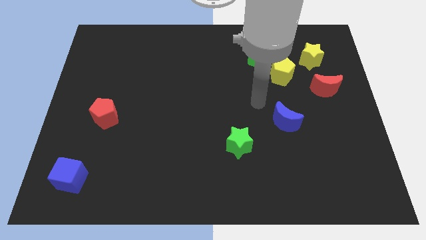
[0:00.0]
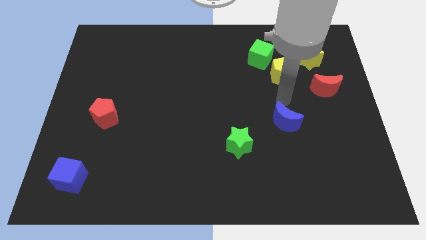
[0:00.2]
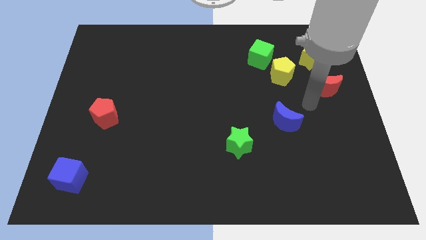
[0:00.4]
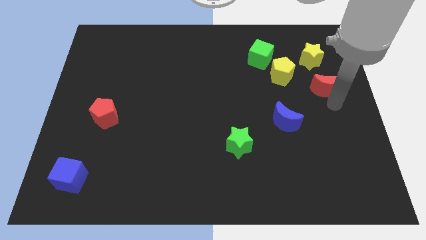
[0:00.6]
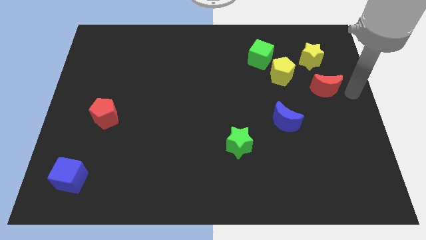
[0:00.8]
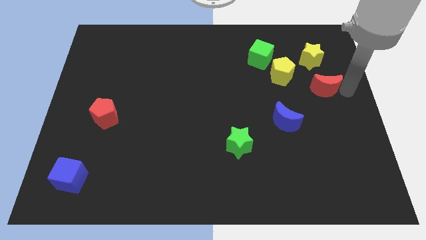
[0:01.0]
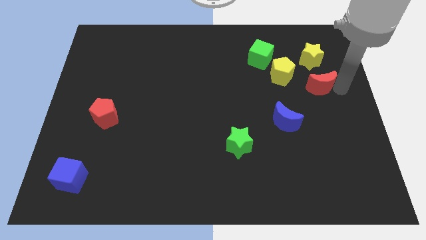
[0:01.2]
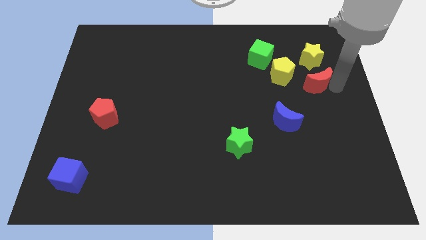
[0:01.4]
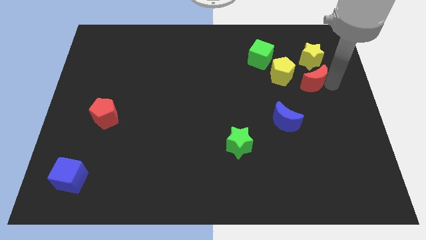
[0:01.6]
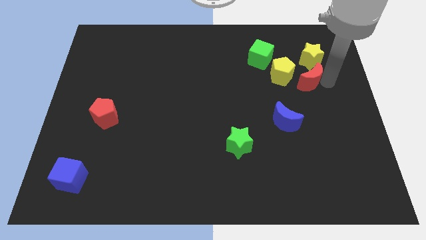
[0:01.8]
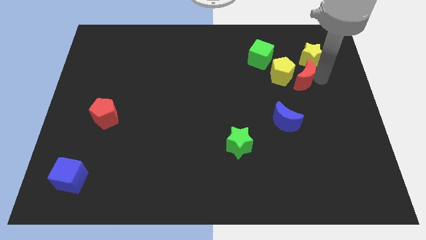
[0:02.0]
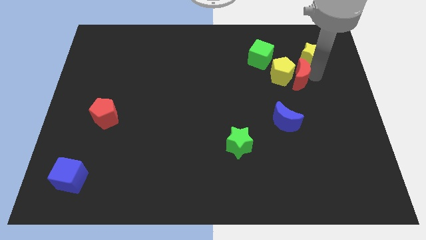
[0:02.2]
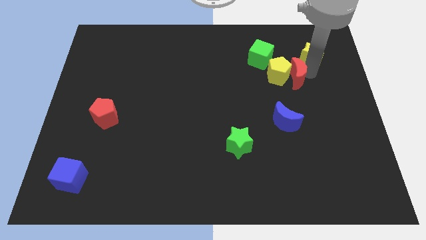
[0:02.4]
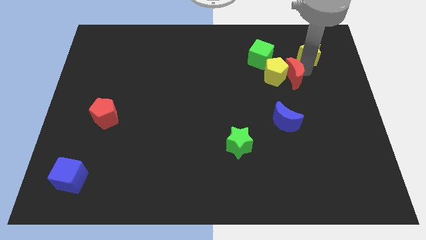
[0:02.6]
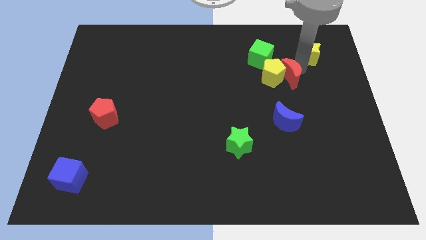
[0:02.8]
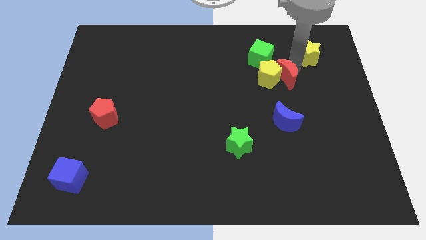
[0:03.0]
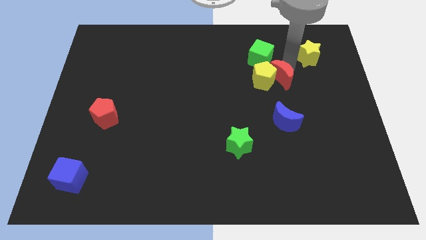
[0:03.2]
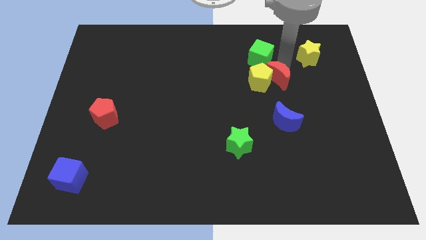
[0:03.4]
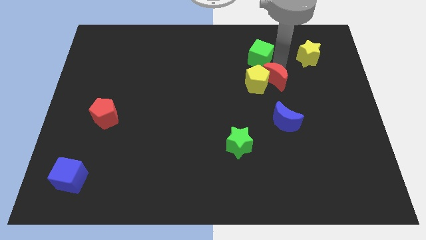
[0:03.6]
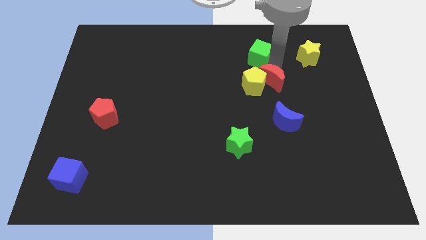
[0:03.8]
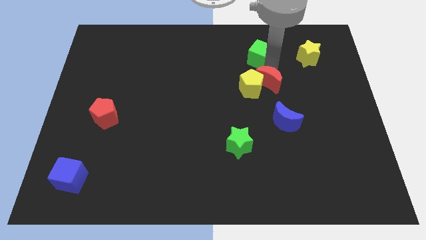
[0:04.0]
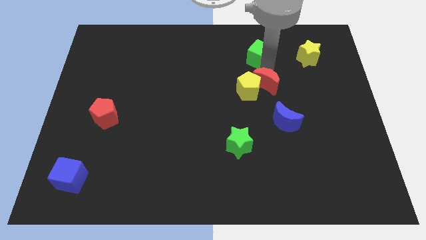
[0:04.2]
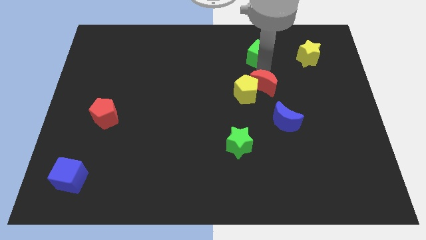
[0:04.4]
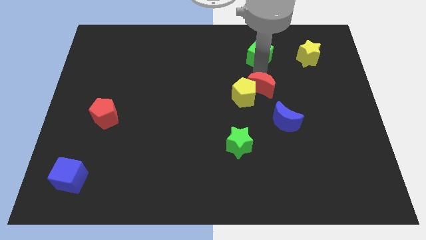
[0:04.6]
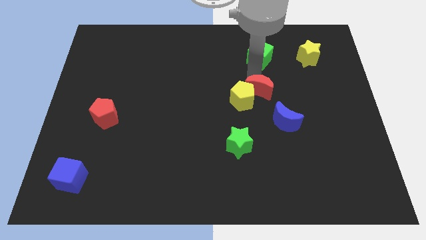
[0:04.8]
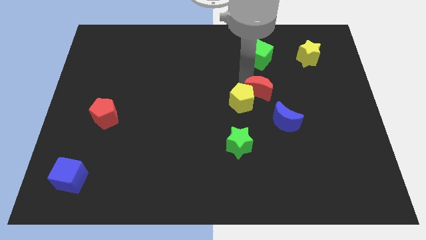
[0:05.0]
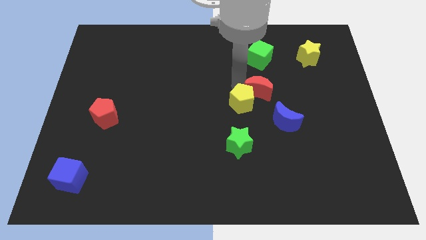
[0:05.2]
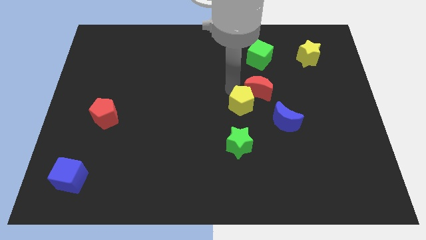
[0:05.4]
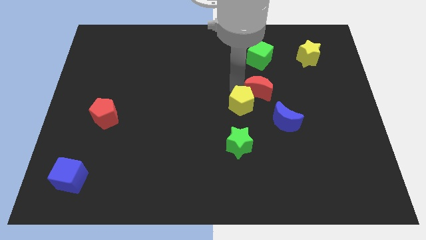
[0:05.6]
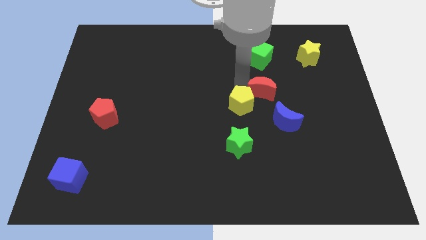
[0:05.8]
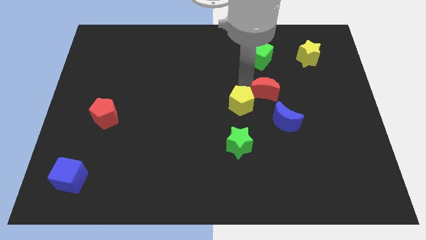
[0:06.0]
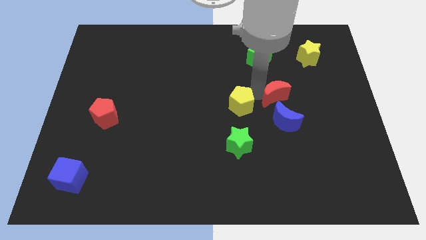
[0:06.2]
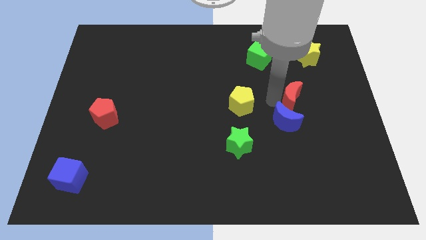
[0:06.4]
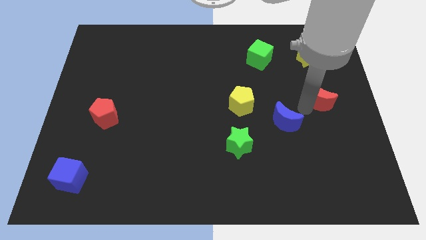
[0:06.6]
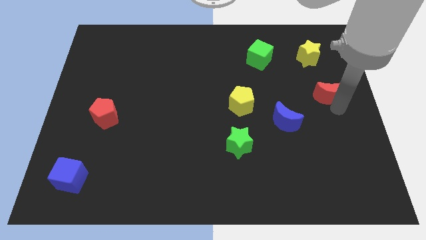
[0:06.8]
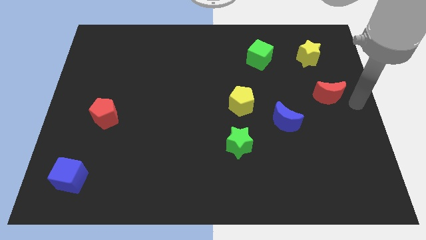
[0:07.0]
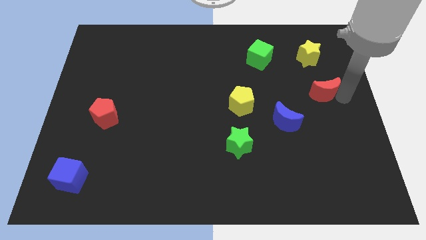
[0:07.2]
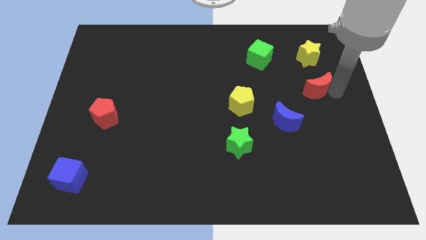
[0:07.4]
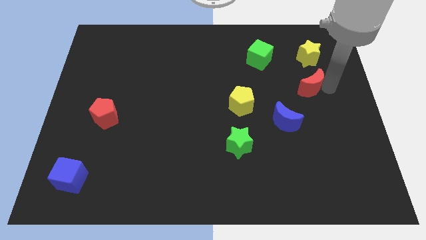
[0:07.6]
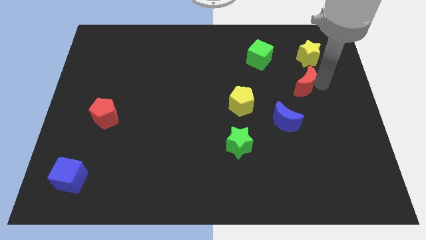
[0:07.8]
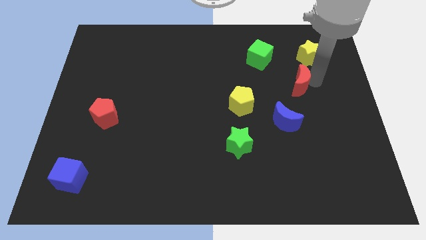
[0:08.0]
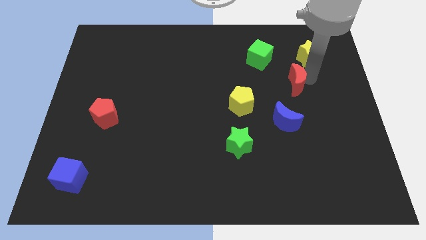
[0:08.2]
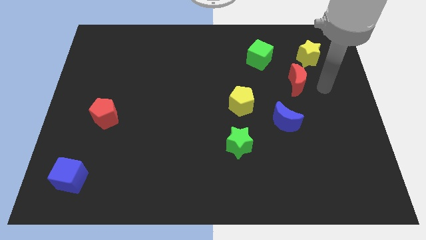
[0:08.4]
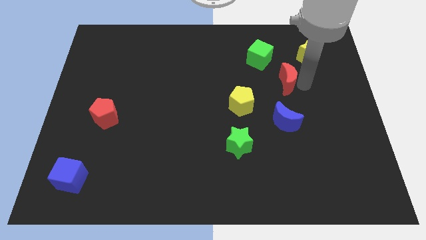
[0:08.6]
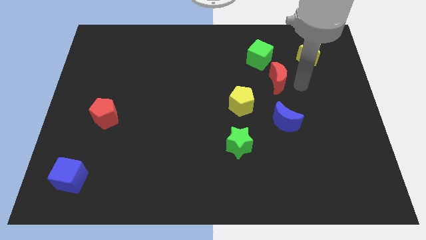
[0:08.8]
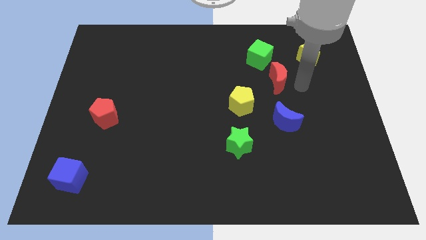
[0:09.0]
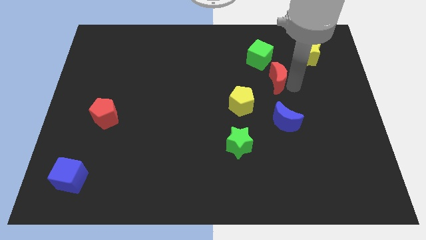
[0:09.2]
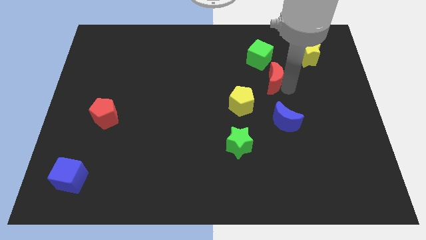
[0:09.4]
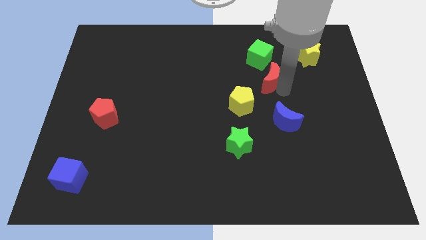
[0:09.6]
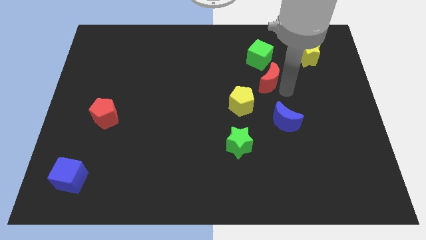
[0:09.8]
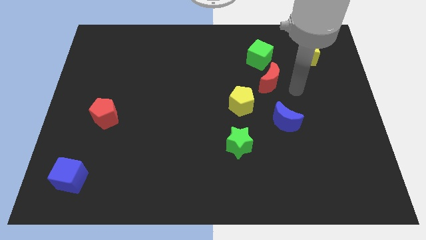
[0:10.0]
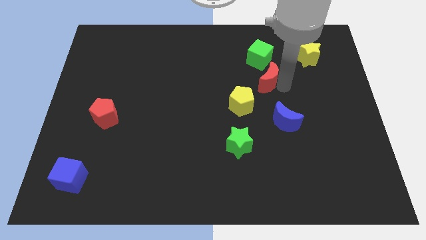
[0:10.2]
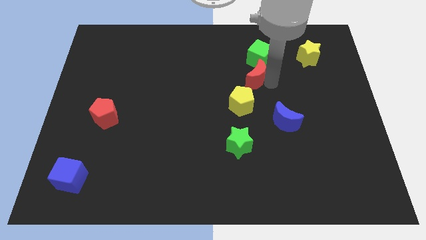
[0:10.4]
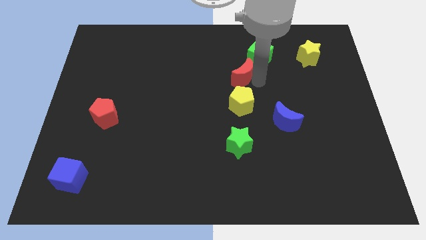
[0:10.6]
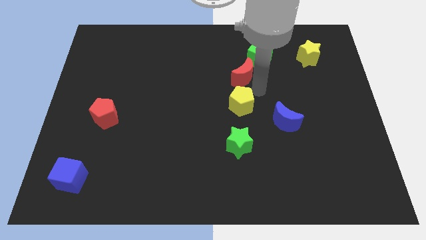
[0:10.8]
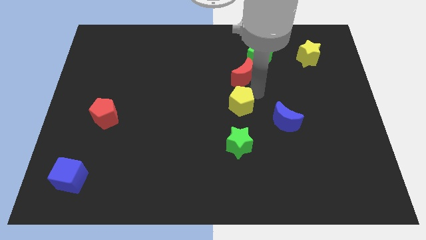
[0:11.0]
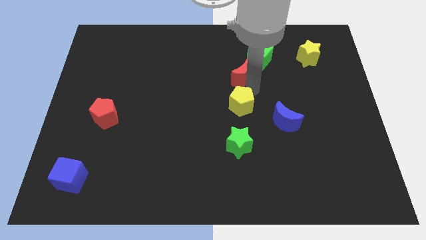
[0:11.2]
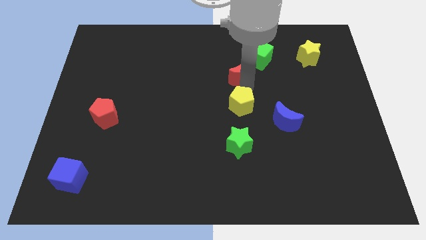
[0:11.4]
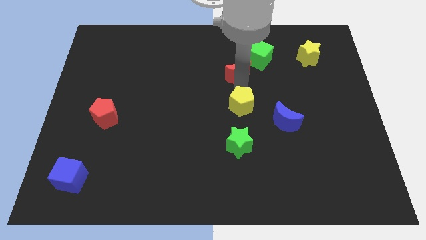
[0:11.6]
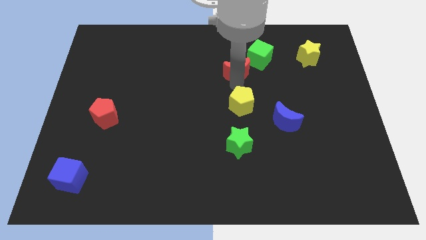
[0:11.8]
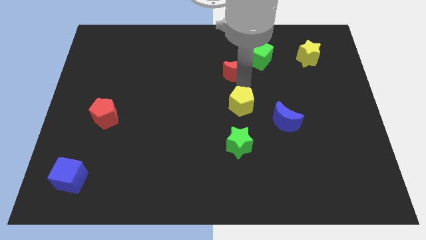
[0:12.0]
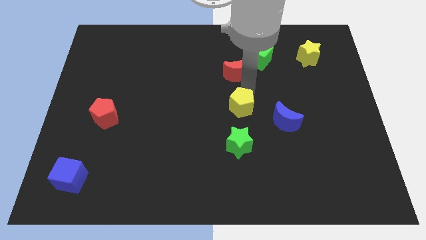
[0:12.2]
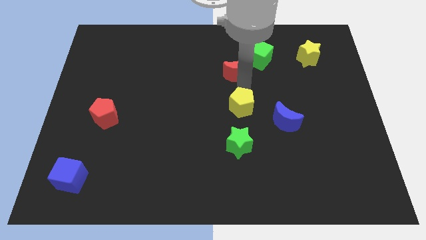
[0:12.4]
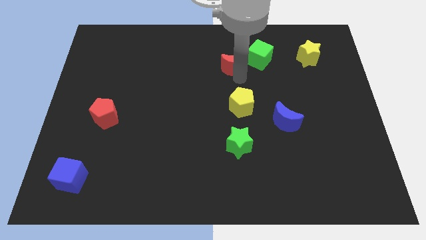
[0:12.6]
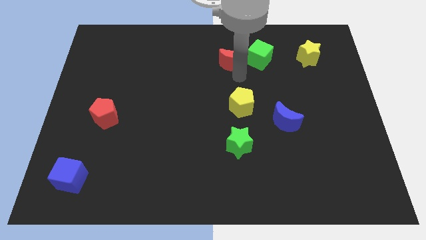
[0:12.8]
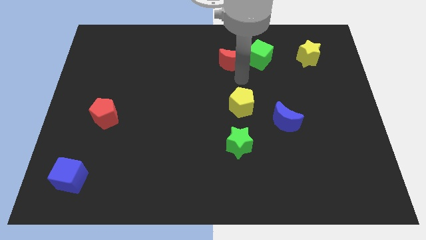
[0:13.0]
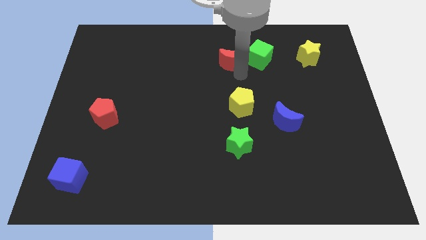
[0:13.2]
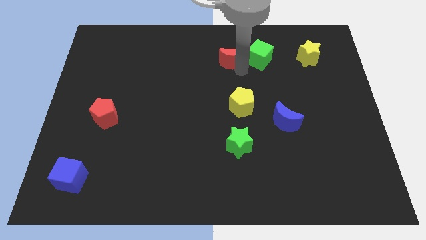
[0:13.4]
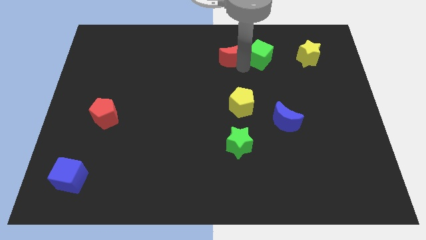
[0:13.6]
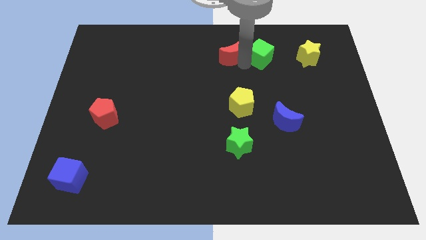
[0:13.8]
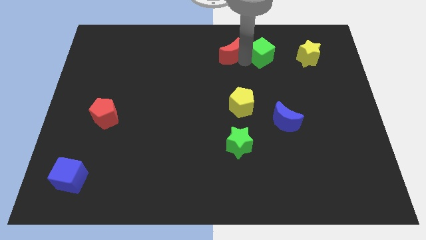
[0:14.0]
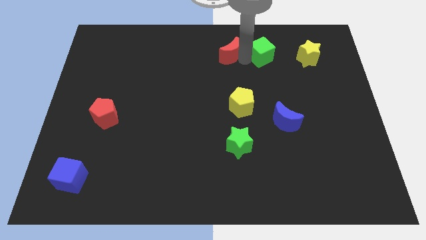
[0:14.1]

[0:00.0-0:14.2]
slide the red moon to the top
